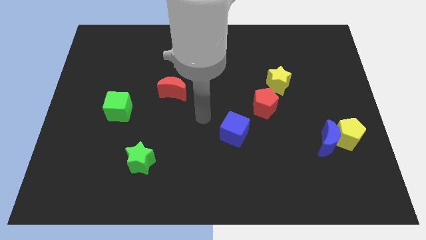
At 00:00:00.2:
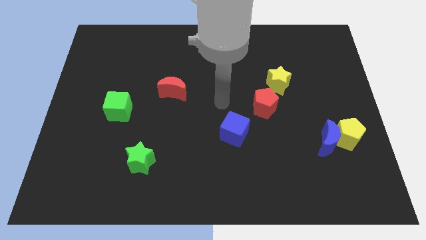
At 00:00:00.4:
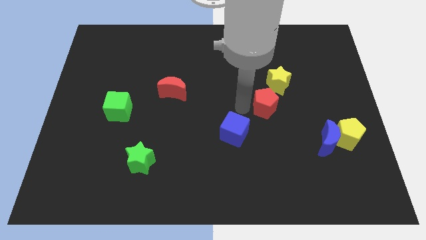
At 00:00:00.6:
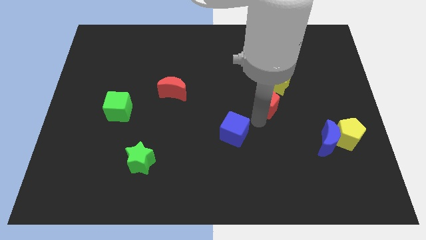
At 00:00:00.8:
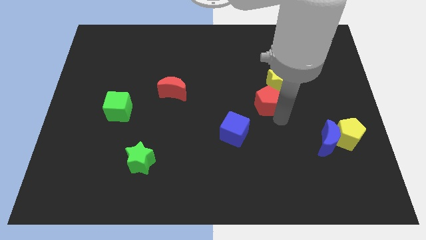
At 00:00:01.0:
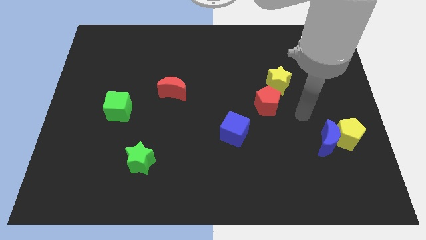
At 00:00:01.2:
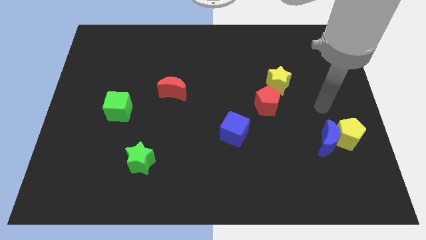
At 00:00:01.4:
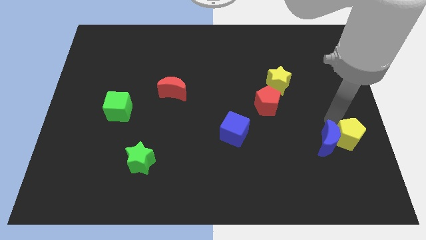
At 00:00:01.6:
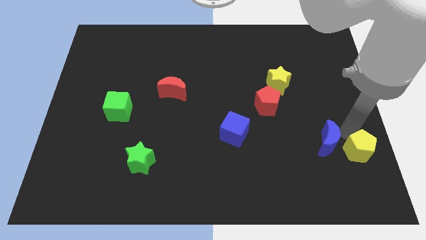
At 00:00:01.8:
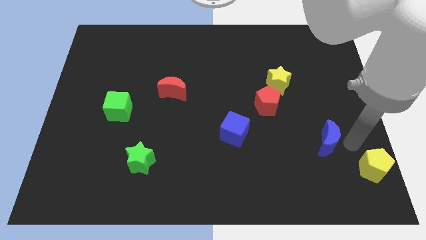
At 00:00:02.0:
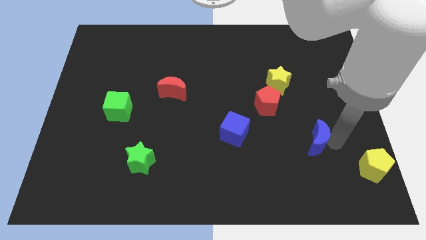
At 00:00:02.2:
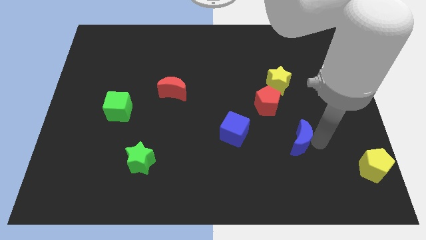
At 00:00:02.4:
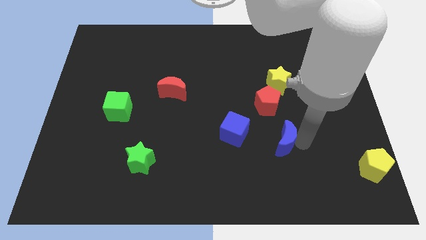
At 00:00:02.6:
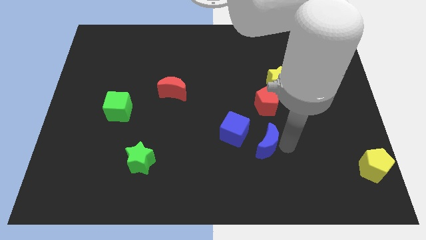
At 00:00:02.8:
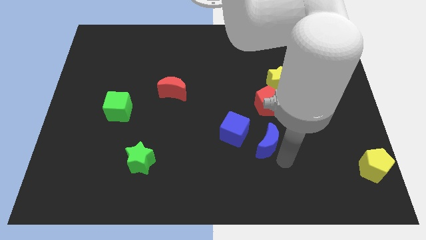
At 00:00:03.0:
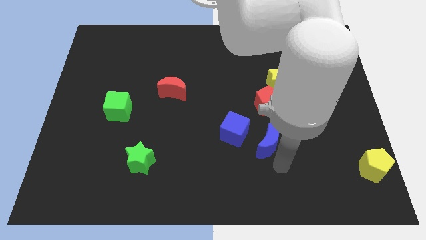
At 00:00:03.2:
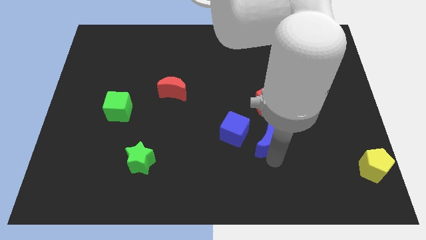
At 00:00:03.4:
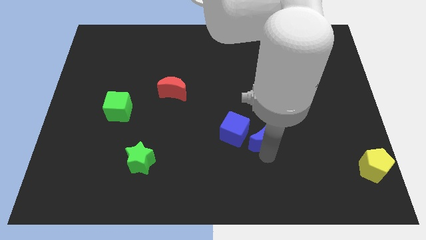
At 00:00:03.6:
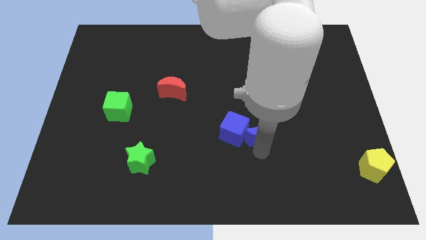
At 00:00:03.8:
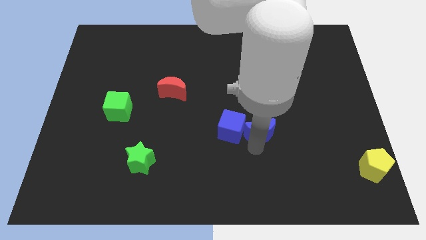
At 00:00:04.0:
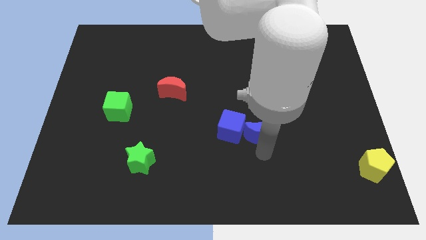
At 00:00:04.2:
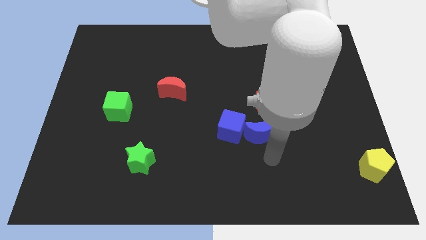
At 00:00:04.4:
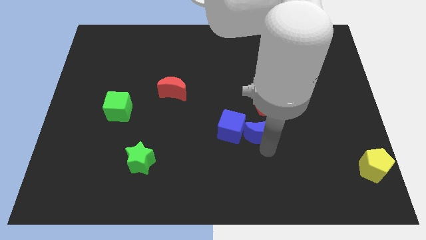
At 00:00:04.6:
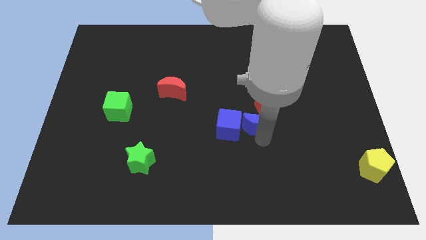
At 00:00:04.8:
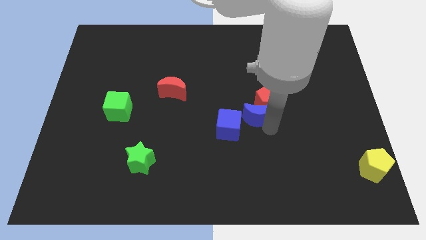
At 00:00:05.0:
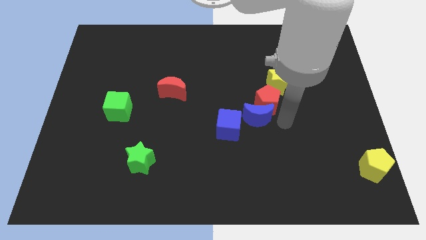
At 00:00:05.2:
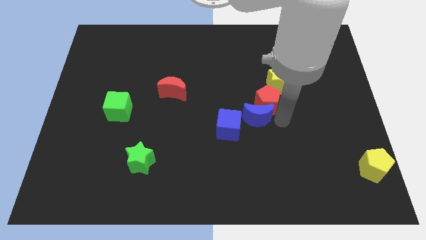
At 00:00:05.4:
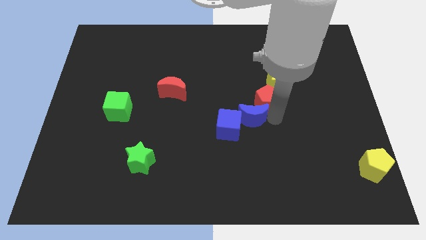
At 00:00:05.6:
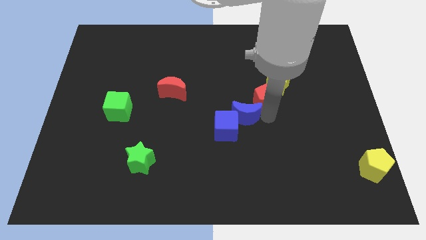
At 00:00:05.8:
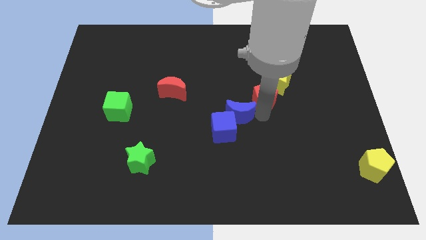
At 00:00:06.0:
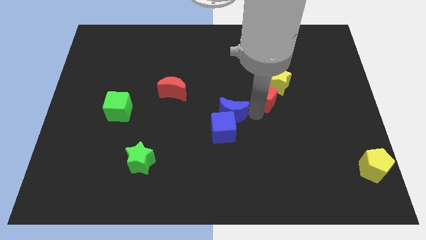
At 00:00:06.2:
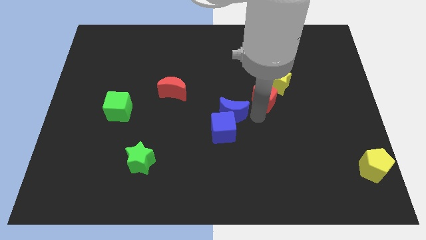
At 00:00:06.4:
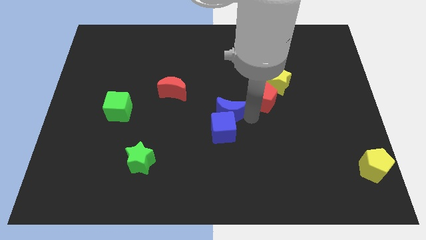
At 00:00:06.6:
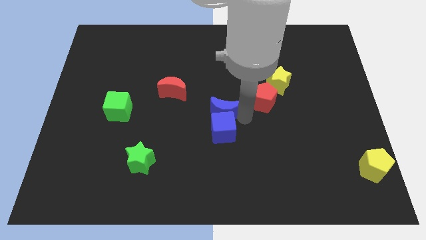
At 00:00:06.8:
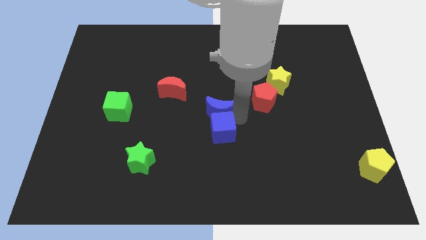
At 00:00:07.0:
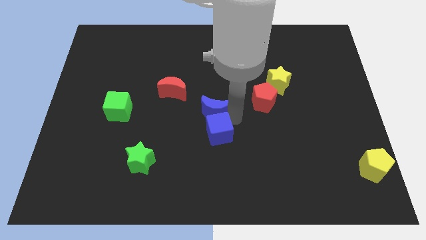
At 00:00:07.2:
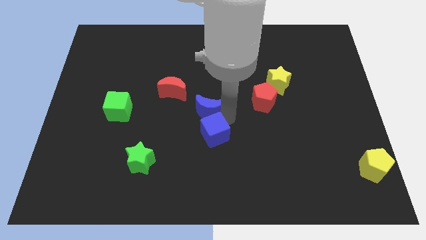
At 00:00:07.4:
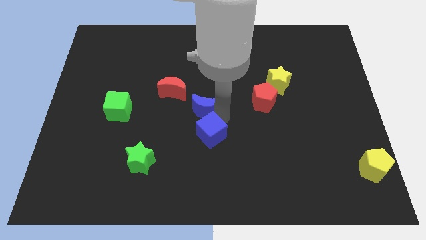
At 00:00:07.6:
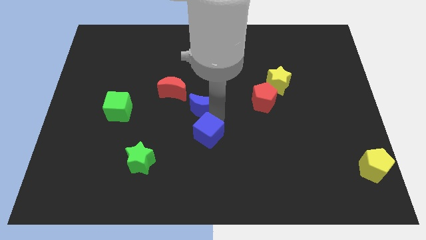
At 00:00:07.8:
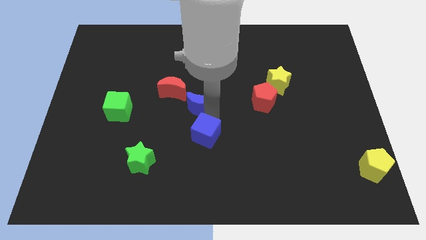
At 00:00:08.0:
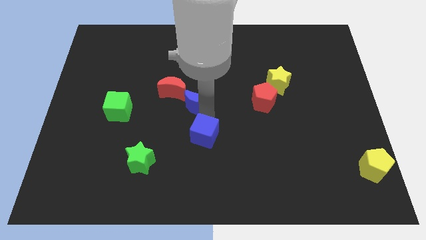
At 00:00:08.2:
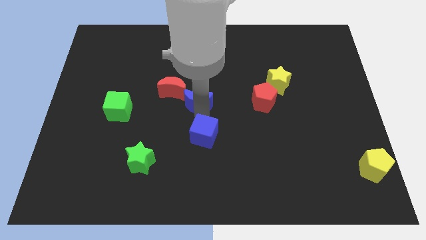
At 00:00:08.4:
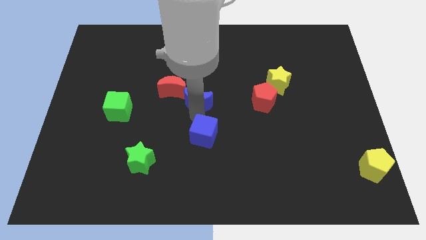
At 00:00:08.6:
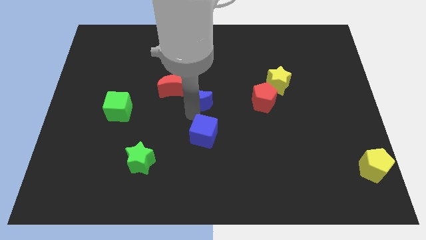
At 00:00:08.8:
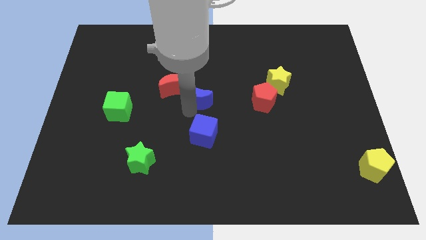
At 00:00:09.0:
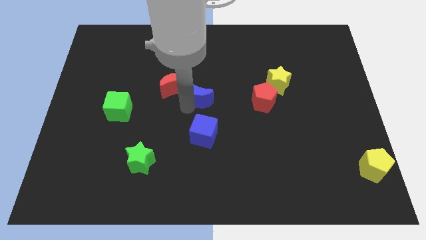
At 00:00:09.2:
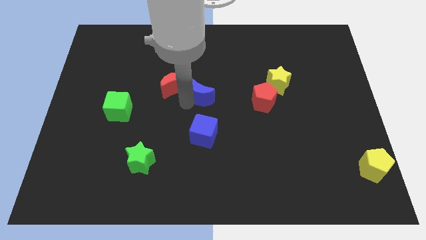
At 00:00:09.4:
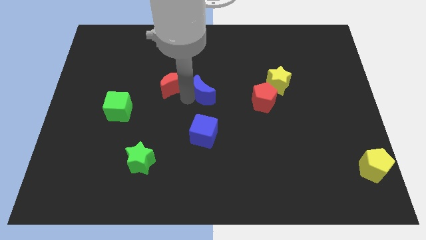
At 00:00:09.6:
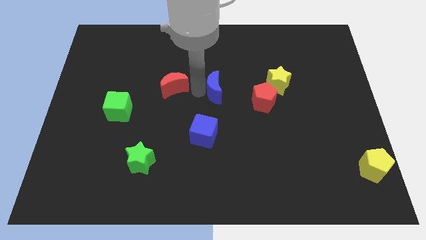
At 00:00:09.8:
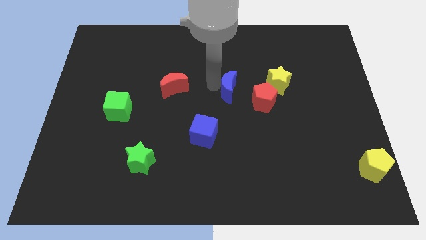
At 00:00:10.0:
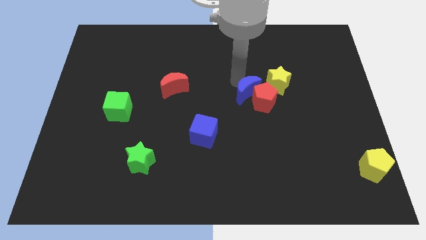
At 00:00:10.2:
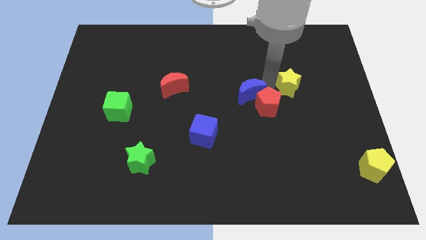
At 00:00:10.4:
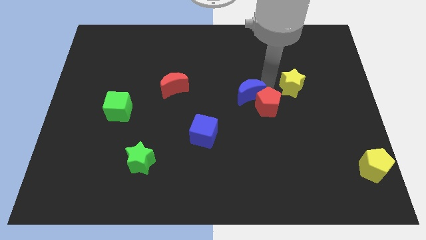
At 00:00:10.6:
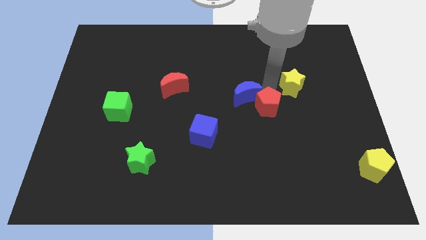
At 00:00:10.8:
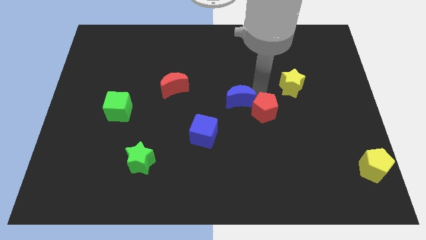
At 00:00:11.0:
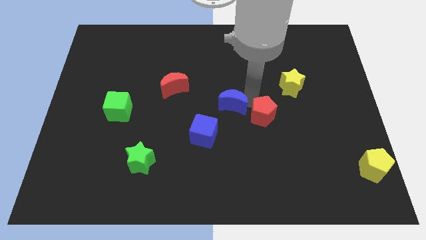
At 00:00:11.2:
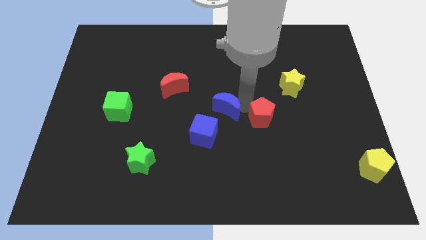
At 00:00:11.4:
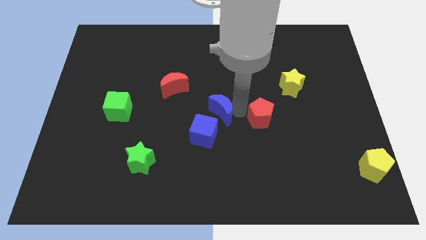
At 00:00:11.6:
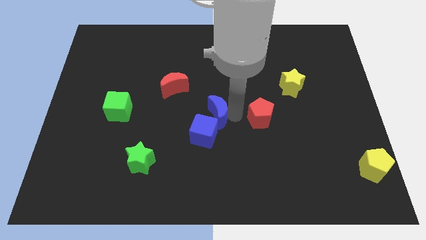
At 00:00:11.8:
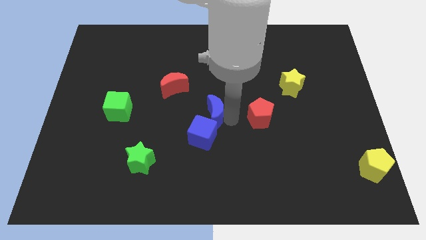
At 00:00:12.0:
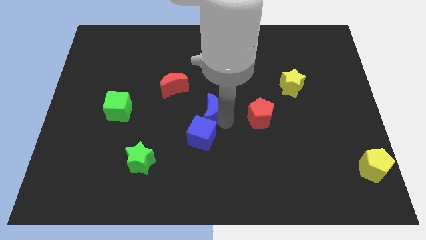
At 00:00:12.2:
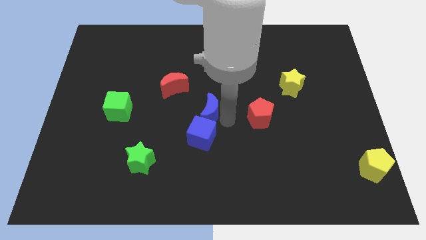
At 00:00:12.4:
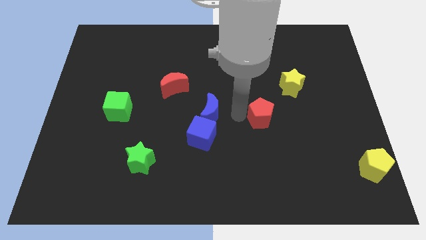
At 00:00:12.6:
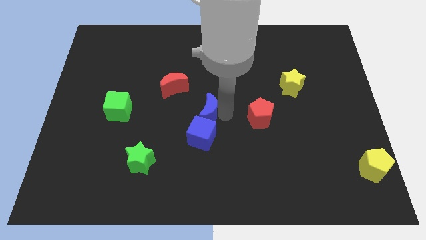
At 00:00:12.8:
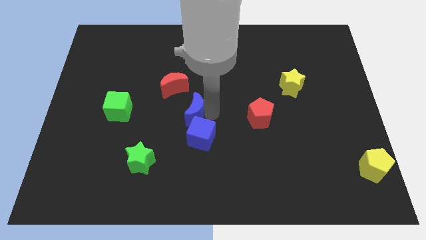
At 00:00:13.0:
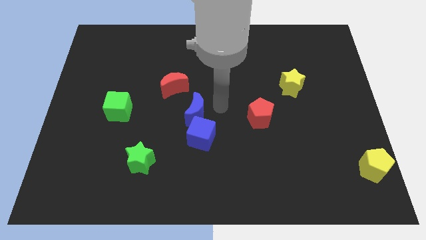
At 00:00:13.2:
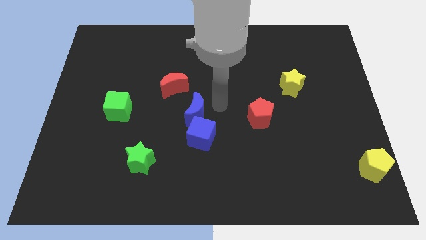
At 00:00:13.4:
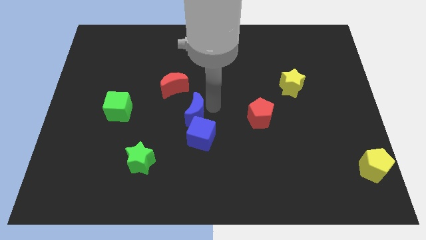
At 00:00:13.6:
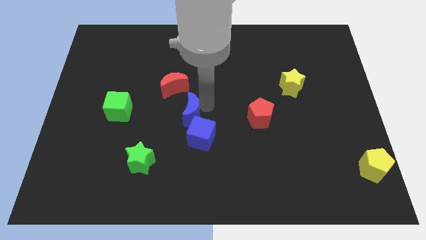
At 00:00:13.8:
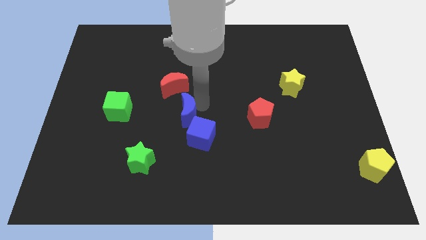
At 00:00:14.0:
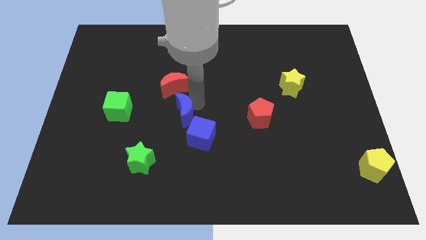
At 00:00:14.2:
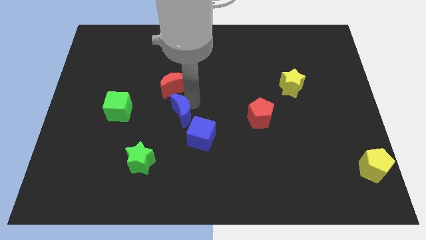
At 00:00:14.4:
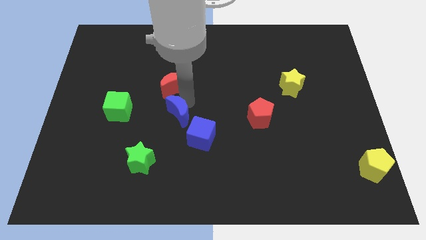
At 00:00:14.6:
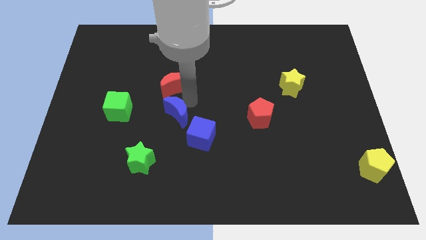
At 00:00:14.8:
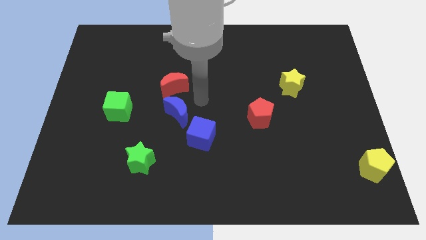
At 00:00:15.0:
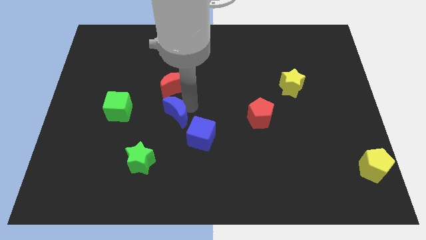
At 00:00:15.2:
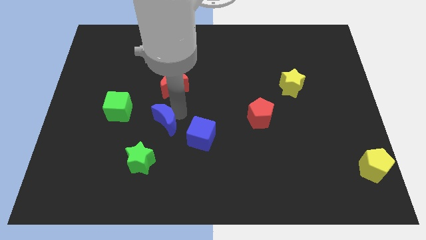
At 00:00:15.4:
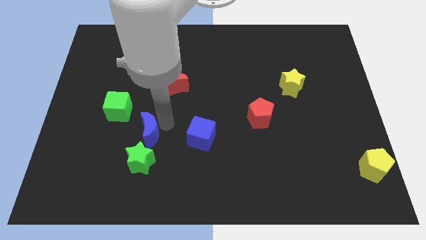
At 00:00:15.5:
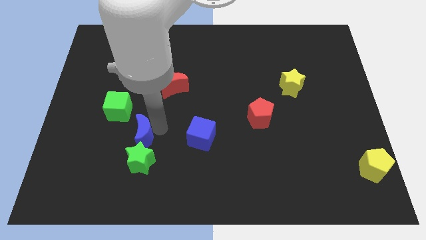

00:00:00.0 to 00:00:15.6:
slide the blue moon to the top left side of the green star

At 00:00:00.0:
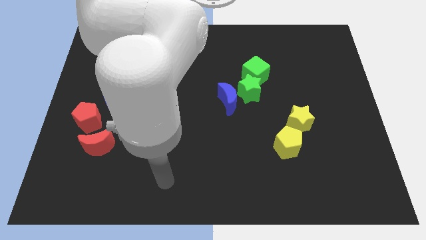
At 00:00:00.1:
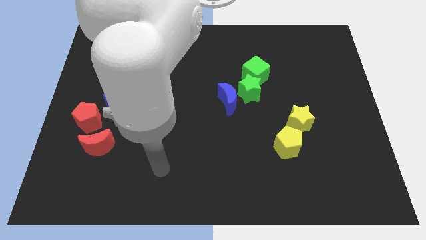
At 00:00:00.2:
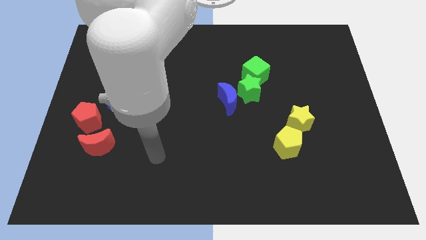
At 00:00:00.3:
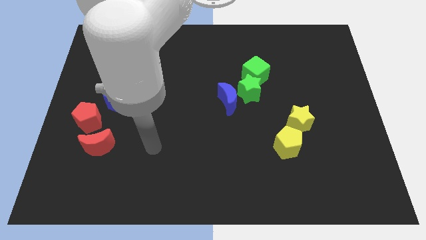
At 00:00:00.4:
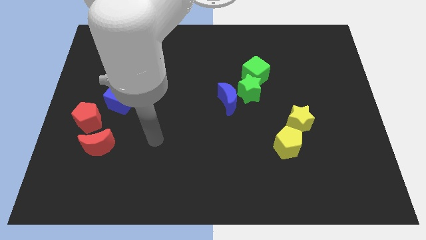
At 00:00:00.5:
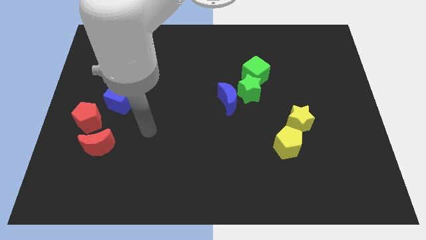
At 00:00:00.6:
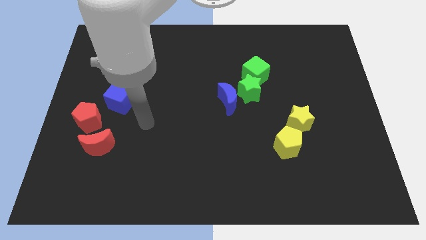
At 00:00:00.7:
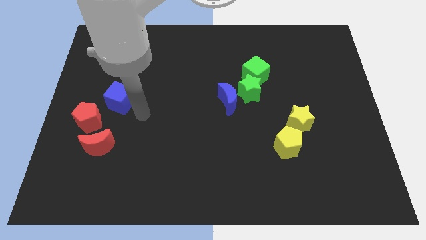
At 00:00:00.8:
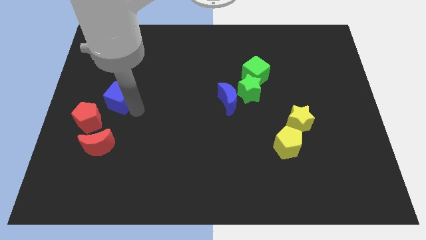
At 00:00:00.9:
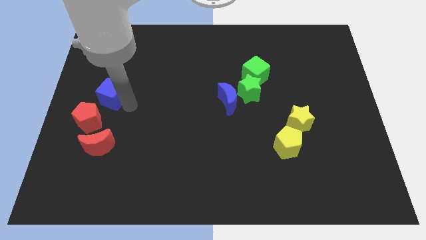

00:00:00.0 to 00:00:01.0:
push the blue cube to the top side of the red pentagon
